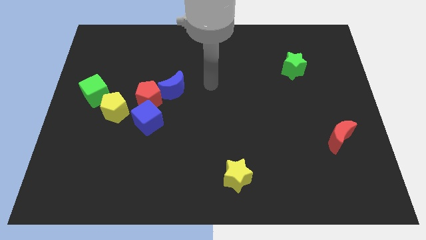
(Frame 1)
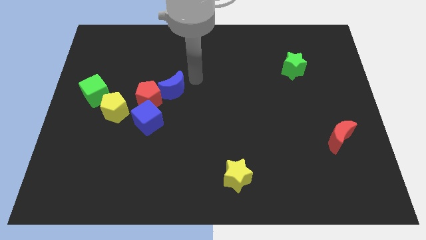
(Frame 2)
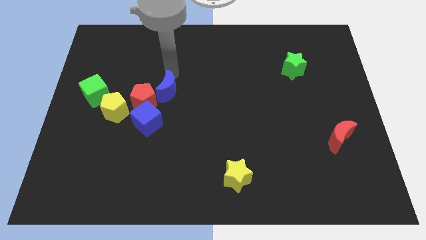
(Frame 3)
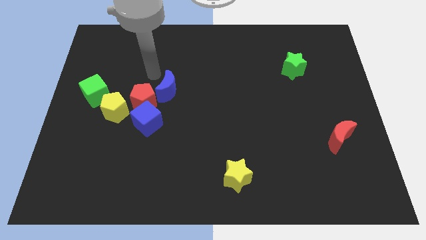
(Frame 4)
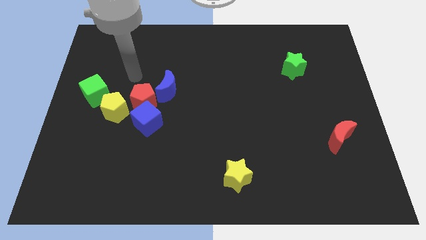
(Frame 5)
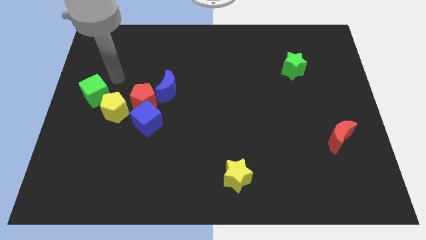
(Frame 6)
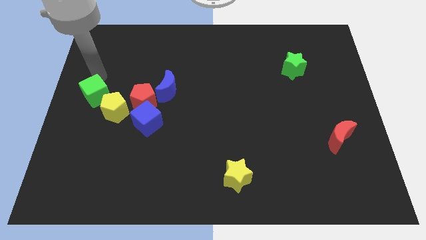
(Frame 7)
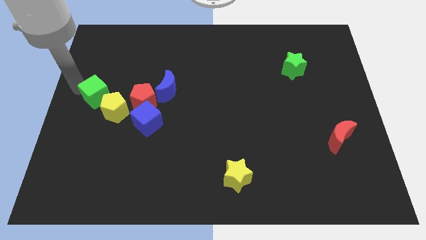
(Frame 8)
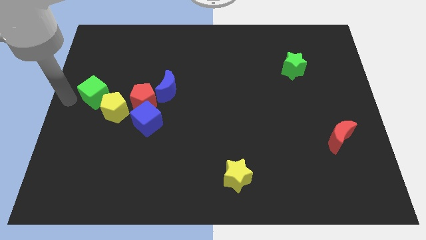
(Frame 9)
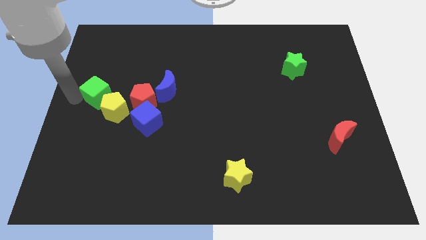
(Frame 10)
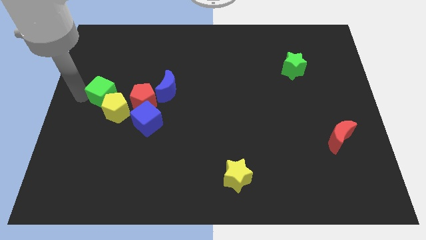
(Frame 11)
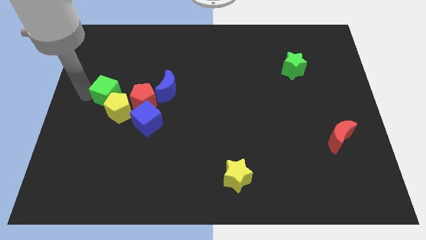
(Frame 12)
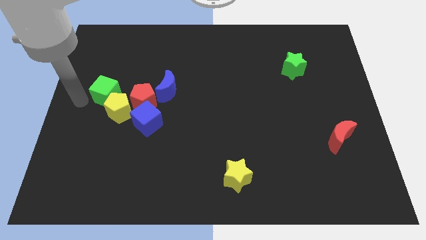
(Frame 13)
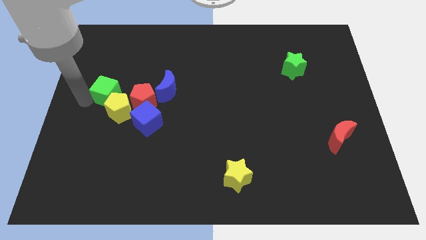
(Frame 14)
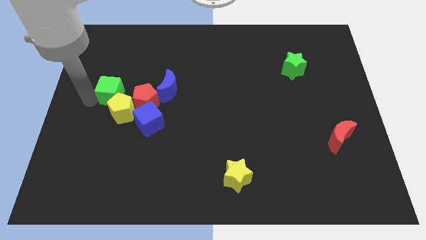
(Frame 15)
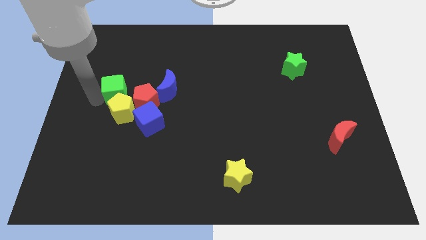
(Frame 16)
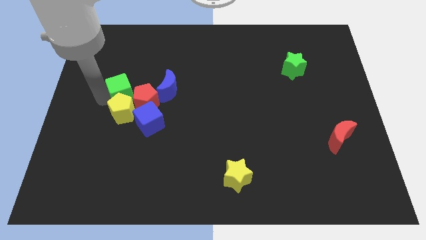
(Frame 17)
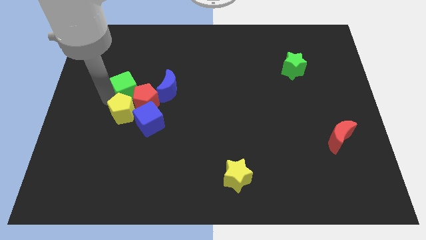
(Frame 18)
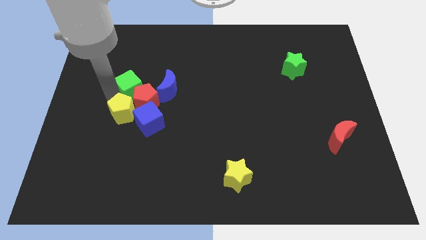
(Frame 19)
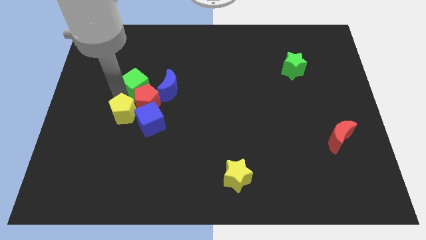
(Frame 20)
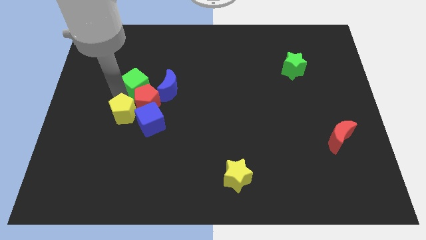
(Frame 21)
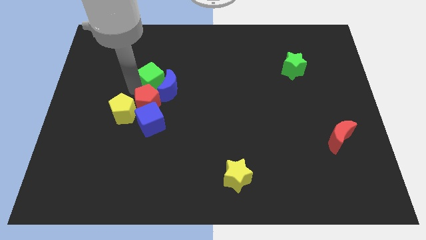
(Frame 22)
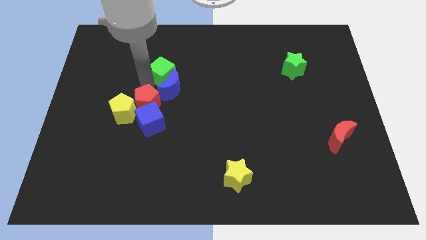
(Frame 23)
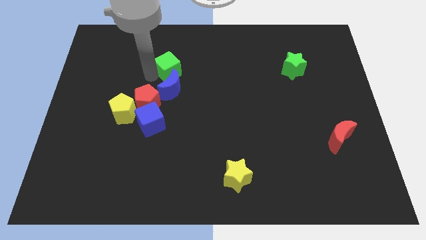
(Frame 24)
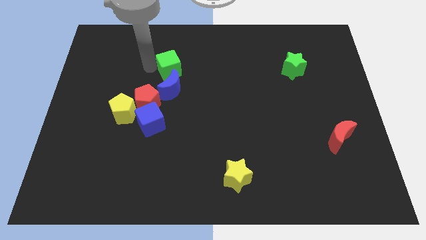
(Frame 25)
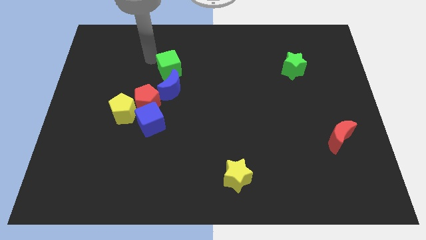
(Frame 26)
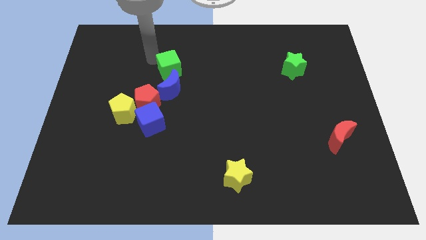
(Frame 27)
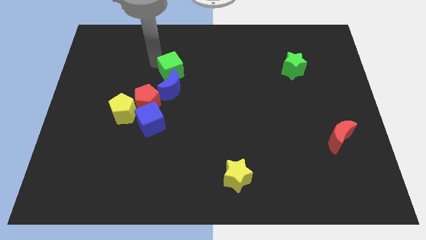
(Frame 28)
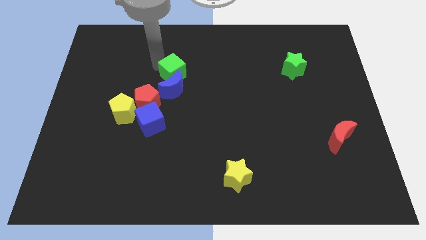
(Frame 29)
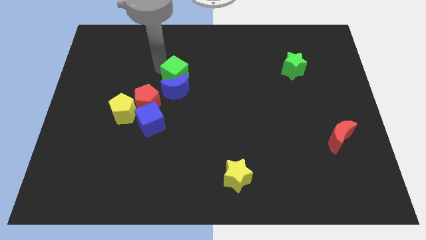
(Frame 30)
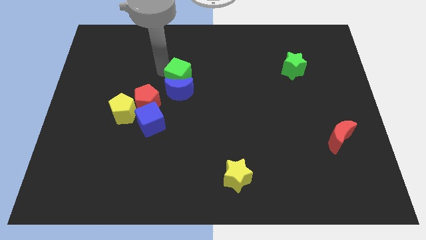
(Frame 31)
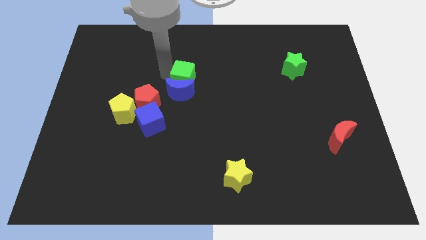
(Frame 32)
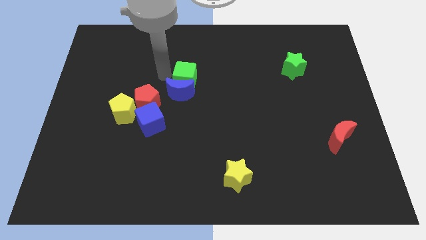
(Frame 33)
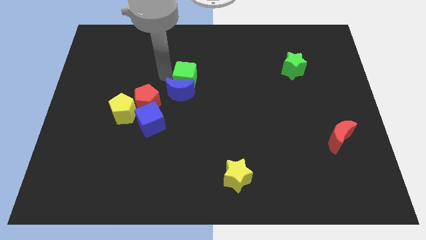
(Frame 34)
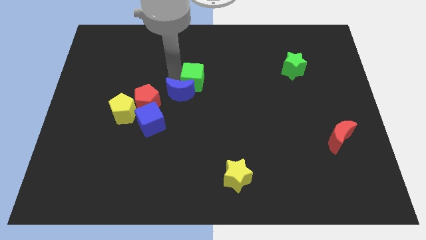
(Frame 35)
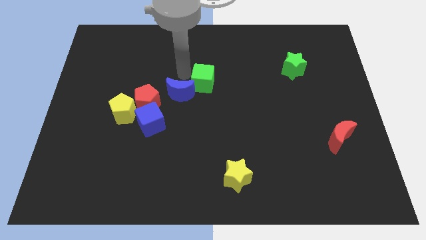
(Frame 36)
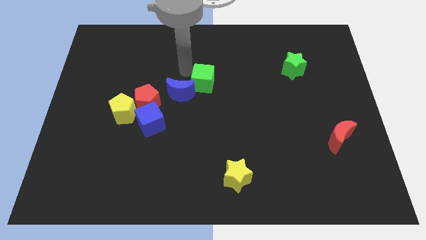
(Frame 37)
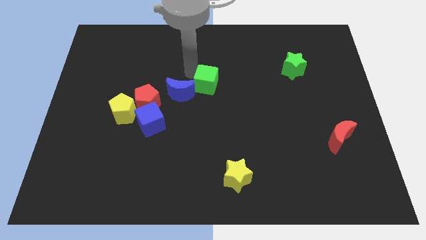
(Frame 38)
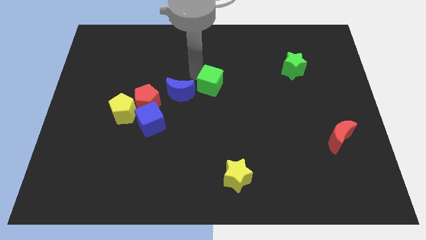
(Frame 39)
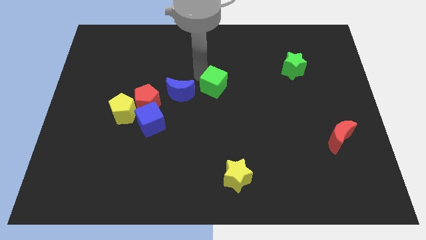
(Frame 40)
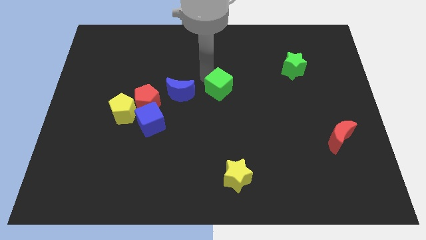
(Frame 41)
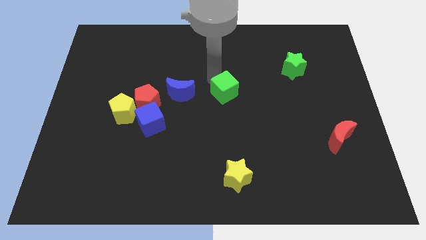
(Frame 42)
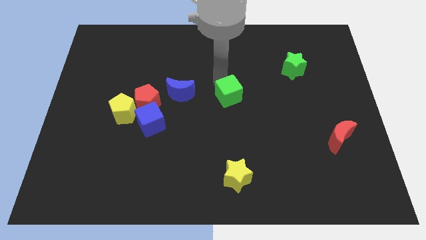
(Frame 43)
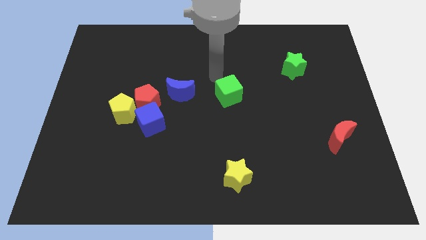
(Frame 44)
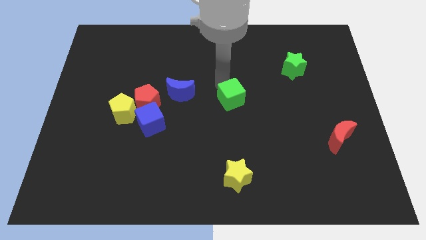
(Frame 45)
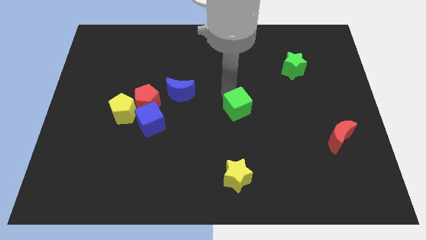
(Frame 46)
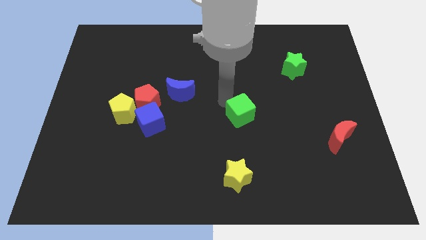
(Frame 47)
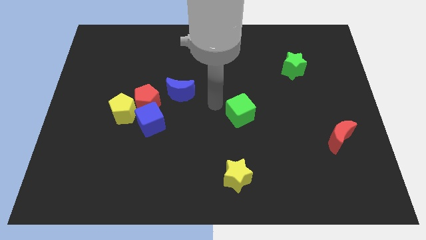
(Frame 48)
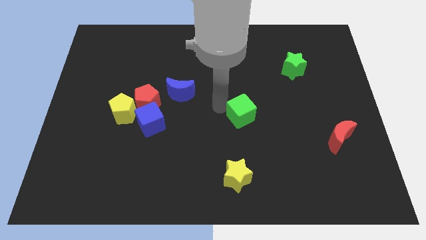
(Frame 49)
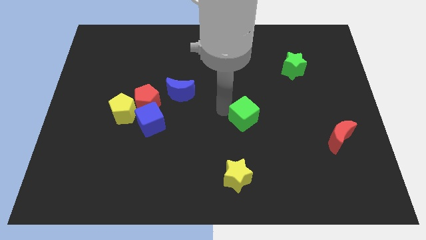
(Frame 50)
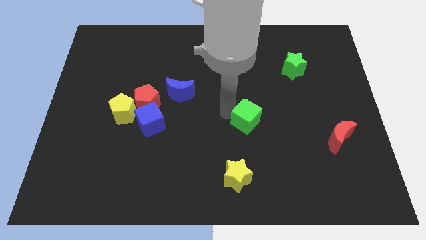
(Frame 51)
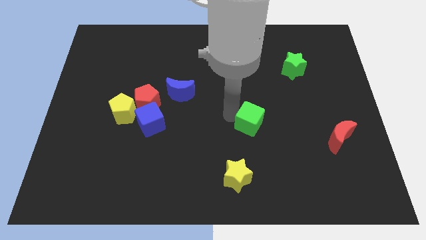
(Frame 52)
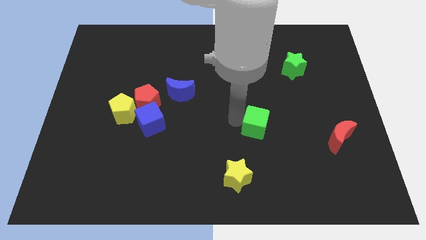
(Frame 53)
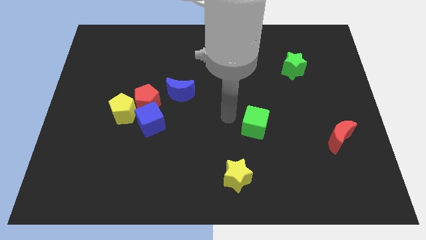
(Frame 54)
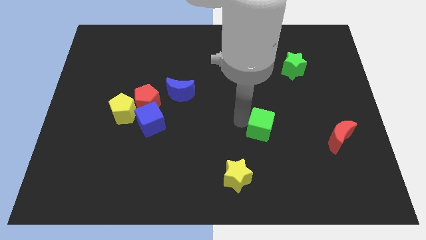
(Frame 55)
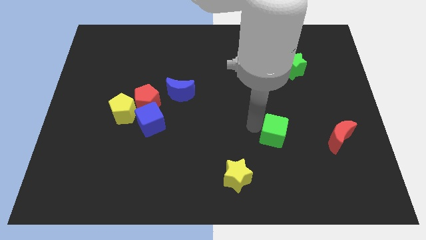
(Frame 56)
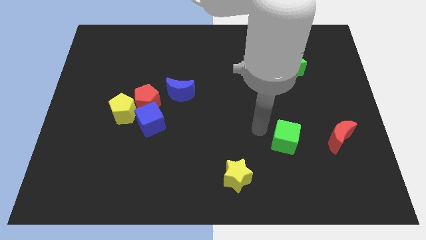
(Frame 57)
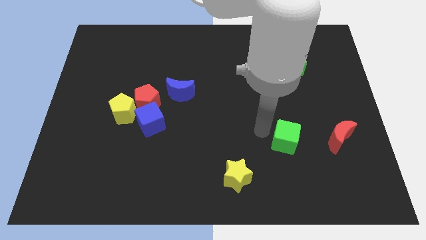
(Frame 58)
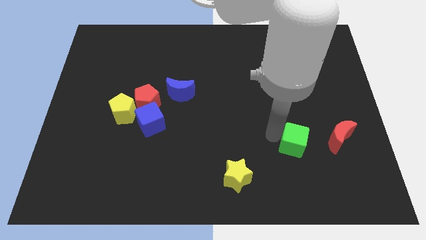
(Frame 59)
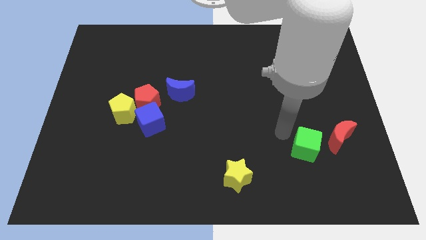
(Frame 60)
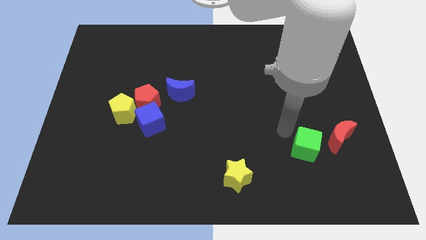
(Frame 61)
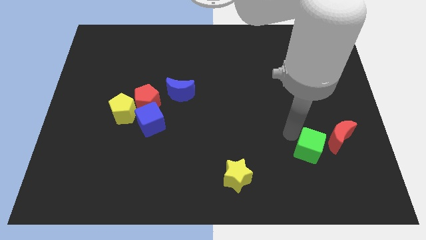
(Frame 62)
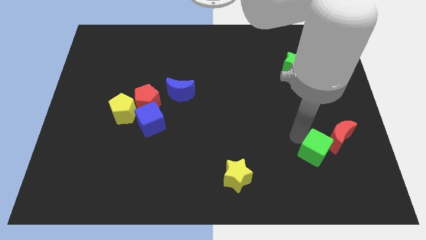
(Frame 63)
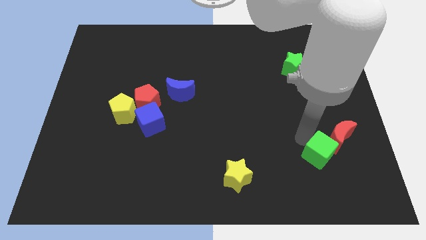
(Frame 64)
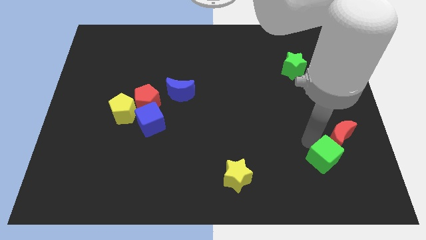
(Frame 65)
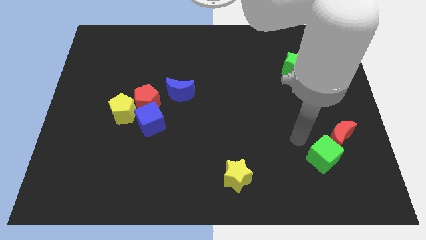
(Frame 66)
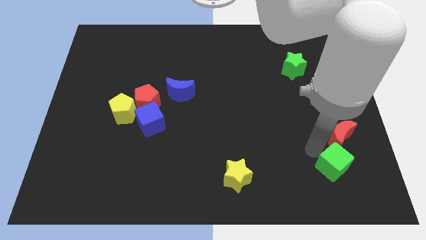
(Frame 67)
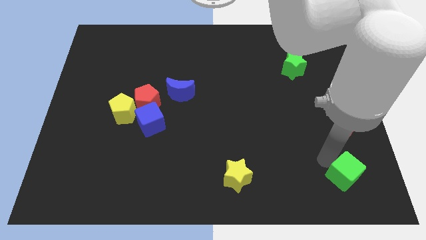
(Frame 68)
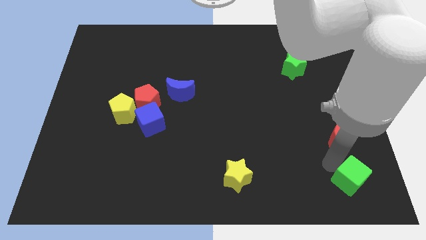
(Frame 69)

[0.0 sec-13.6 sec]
slide the green cube to the bottom right corner
